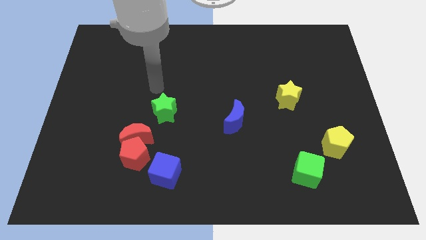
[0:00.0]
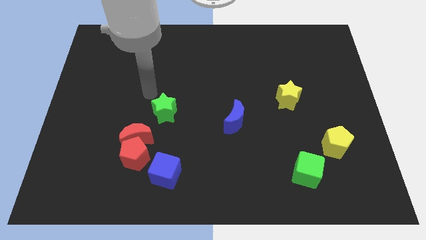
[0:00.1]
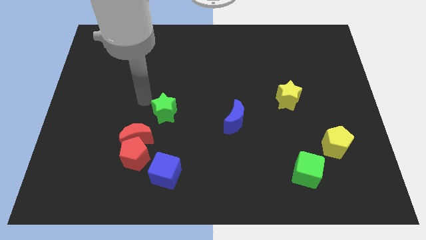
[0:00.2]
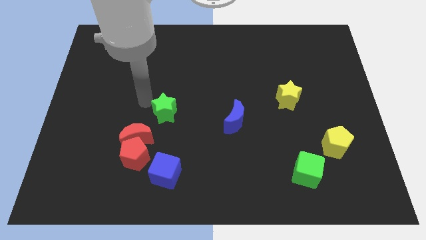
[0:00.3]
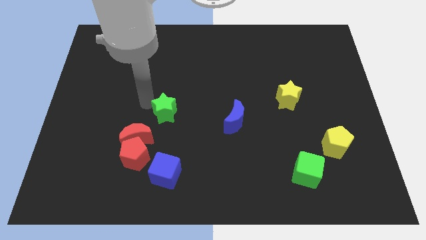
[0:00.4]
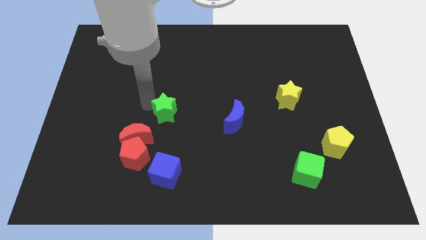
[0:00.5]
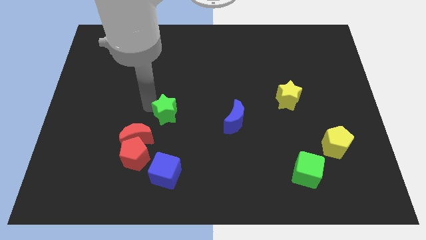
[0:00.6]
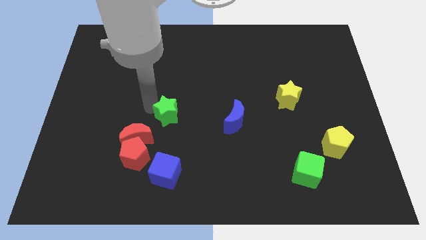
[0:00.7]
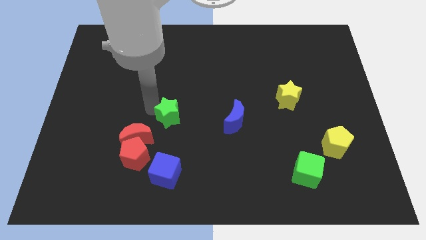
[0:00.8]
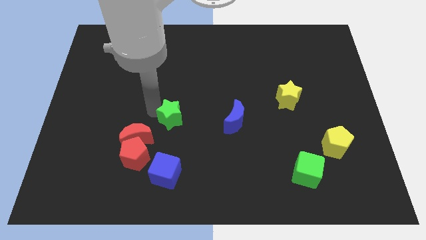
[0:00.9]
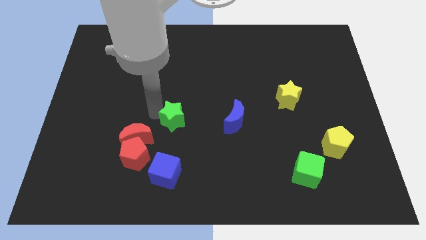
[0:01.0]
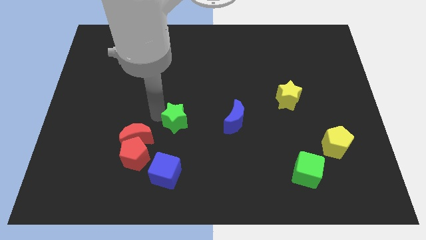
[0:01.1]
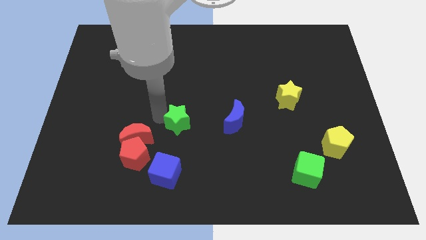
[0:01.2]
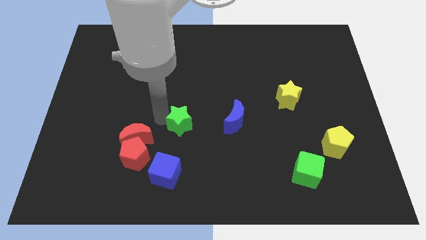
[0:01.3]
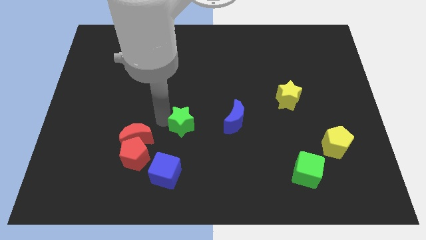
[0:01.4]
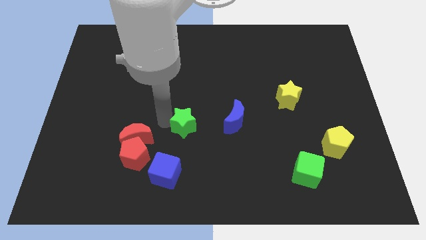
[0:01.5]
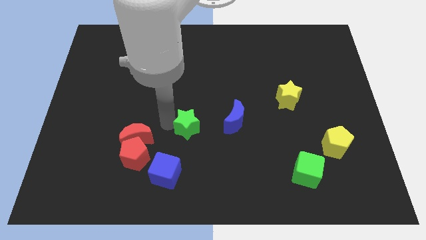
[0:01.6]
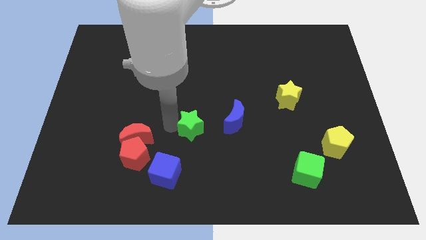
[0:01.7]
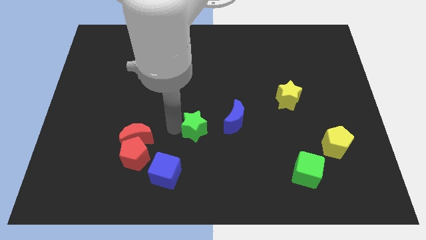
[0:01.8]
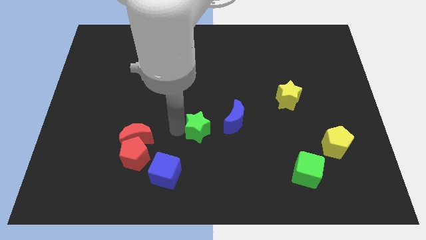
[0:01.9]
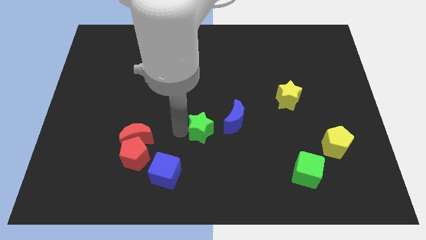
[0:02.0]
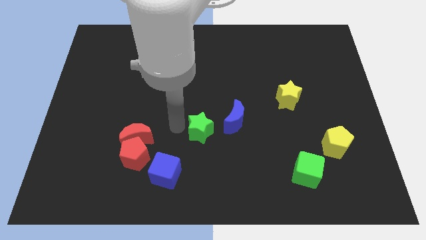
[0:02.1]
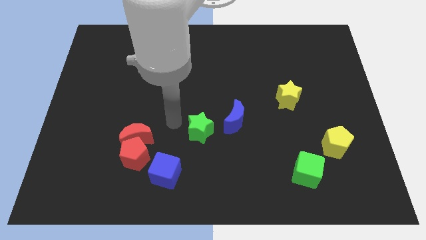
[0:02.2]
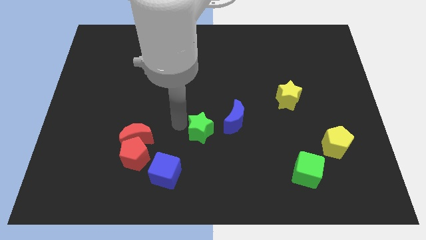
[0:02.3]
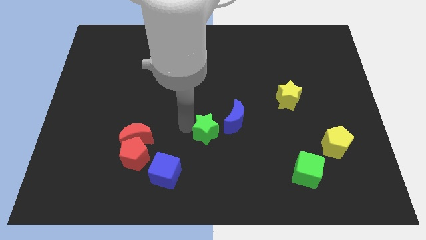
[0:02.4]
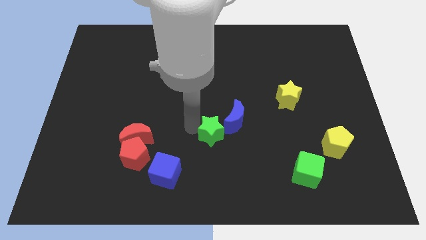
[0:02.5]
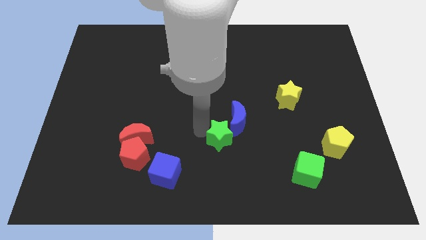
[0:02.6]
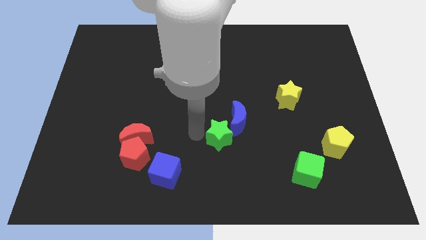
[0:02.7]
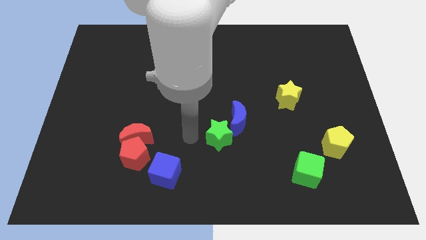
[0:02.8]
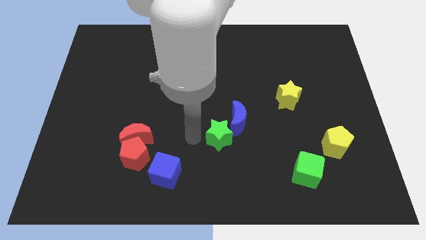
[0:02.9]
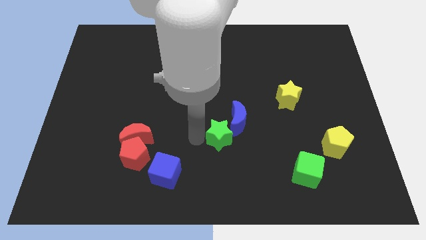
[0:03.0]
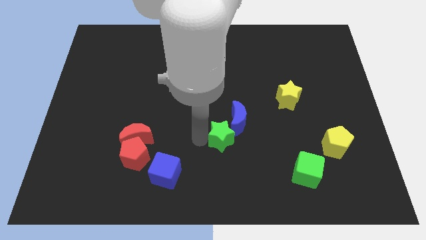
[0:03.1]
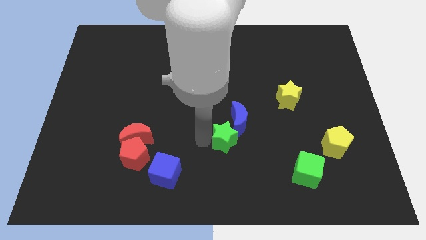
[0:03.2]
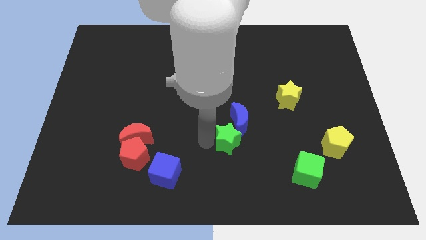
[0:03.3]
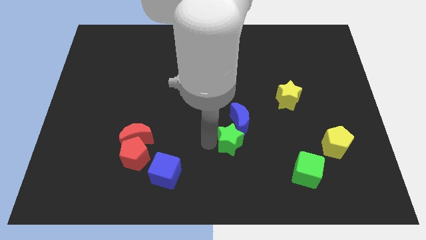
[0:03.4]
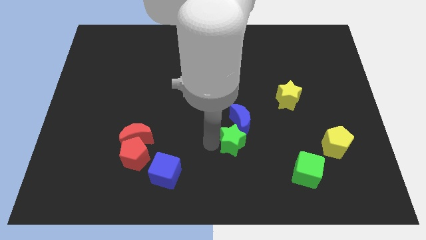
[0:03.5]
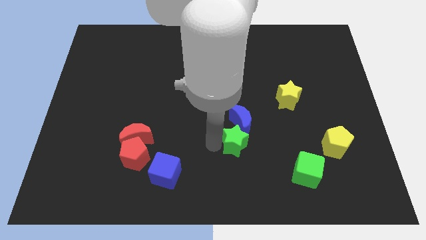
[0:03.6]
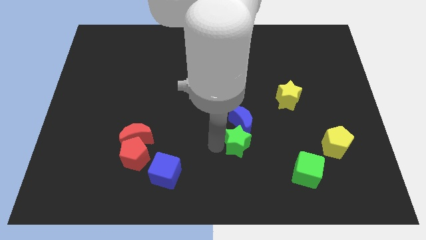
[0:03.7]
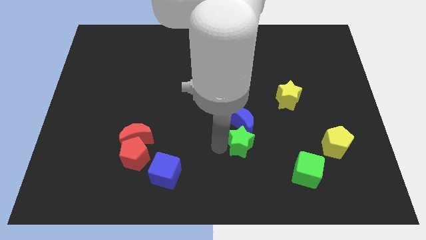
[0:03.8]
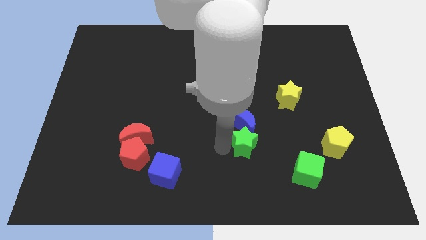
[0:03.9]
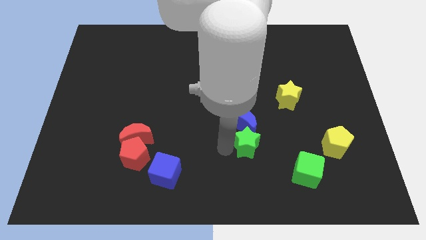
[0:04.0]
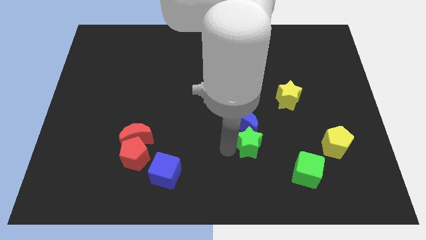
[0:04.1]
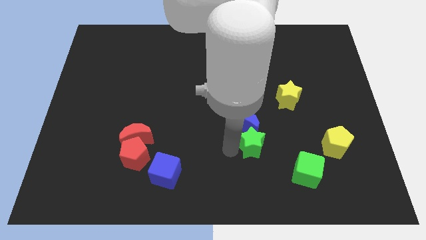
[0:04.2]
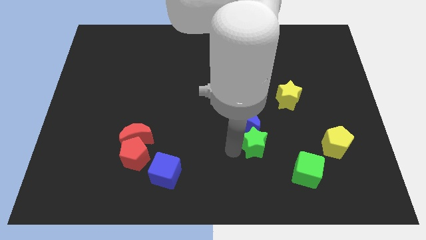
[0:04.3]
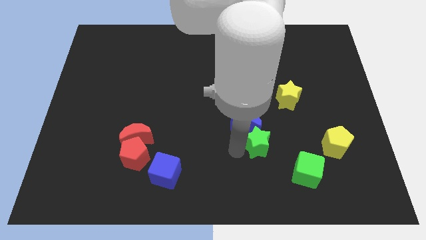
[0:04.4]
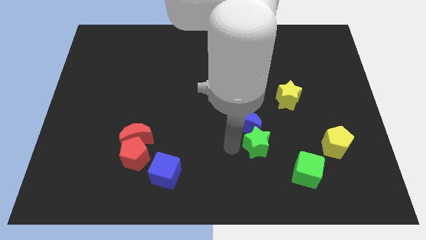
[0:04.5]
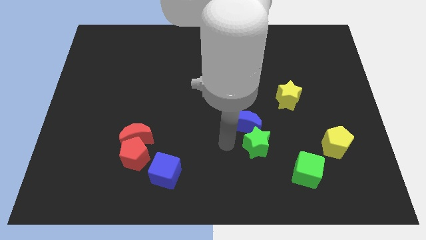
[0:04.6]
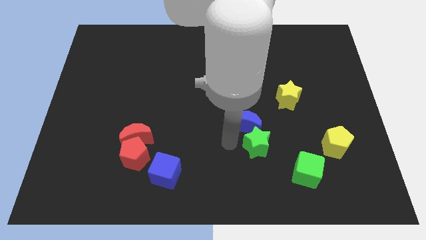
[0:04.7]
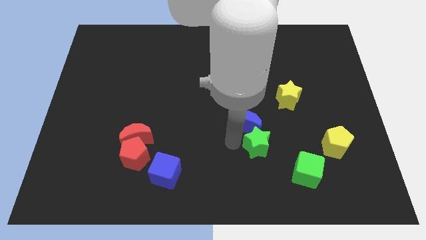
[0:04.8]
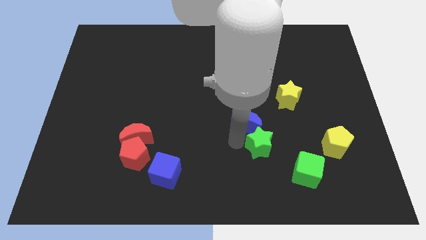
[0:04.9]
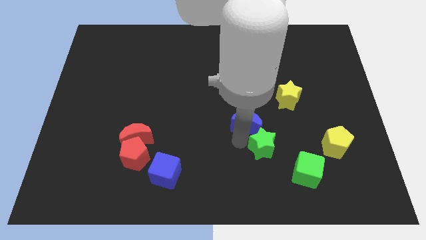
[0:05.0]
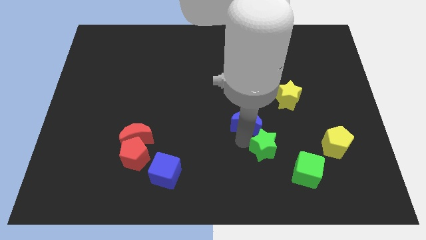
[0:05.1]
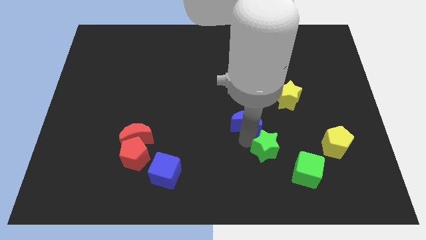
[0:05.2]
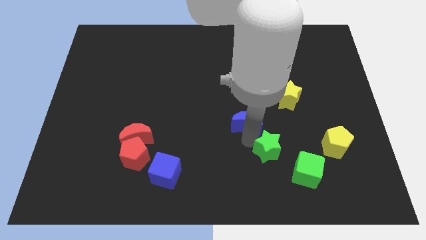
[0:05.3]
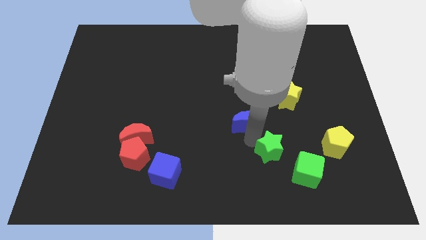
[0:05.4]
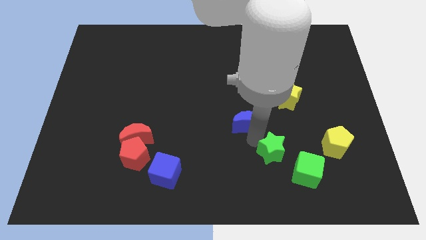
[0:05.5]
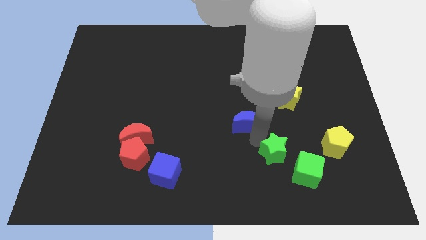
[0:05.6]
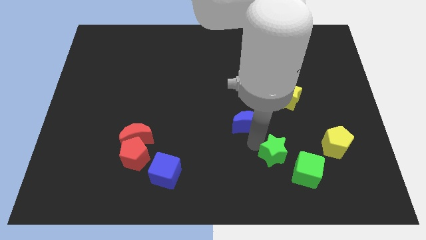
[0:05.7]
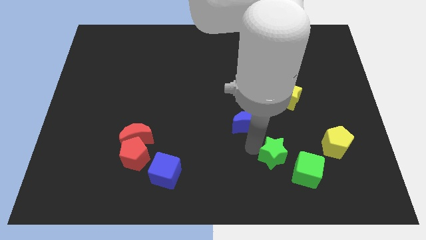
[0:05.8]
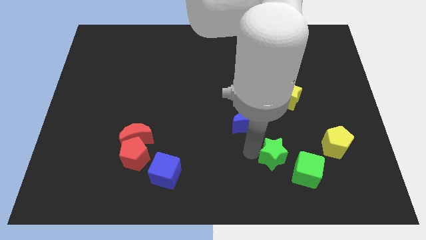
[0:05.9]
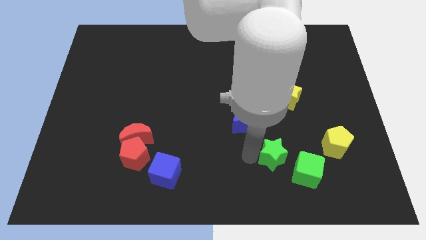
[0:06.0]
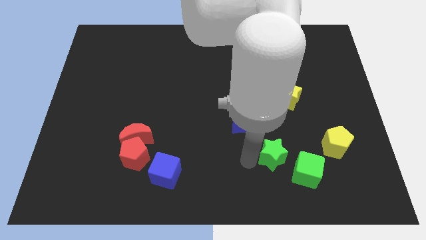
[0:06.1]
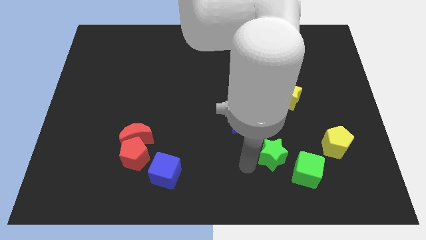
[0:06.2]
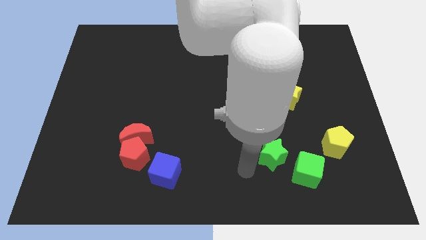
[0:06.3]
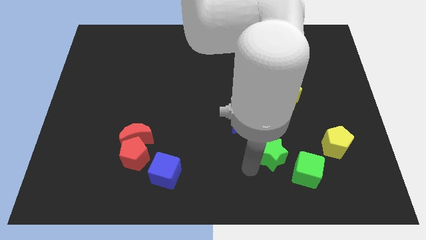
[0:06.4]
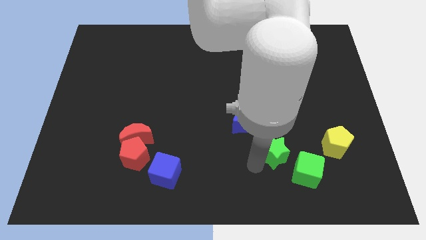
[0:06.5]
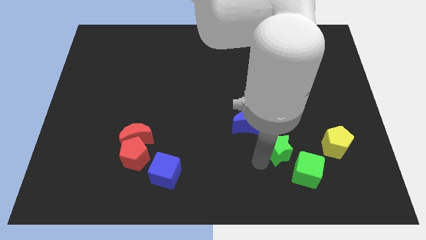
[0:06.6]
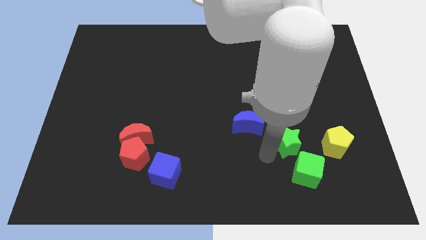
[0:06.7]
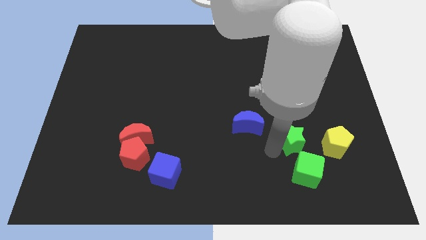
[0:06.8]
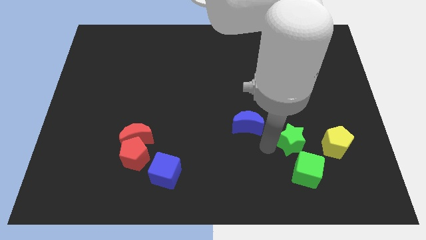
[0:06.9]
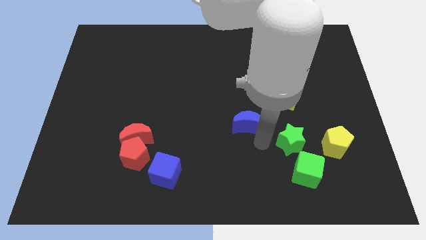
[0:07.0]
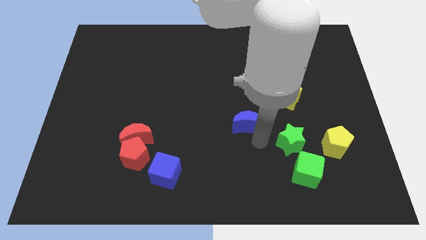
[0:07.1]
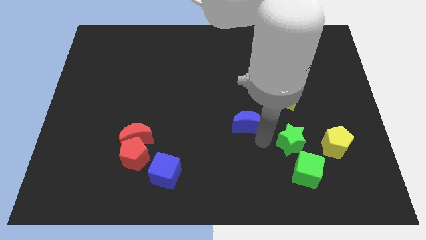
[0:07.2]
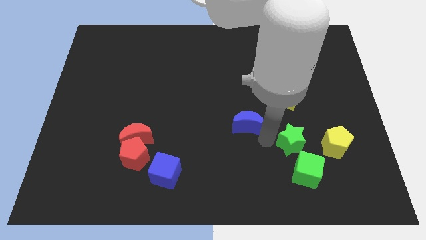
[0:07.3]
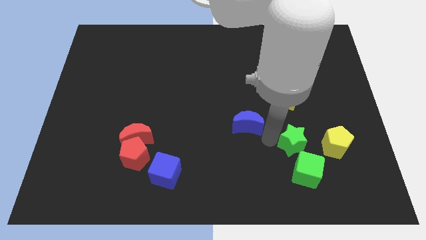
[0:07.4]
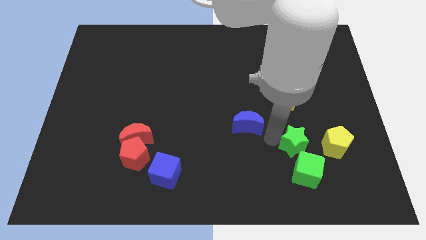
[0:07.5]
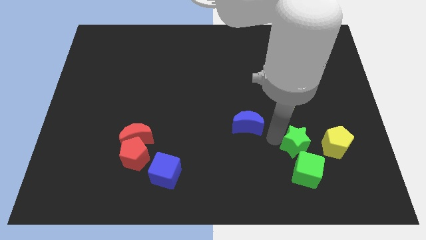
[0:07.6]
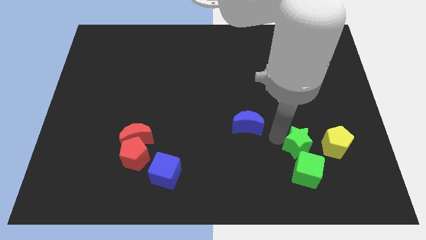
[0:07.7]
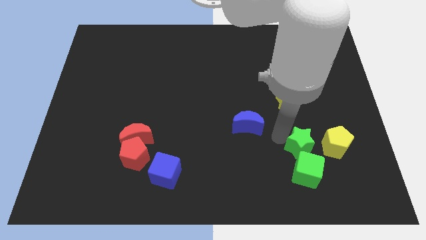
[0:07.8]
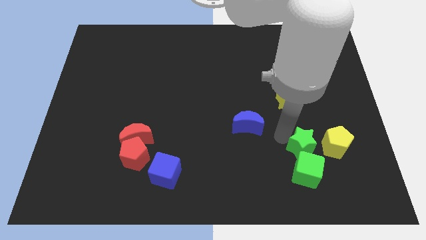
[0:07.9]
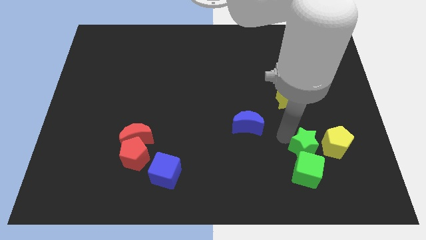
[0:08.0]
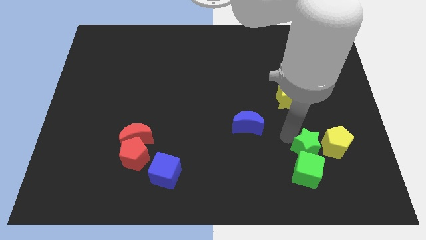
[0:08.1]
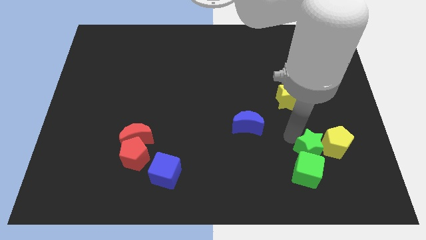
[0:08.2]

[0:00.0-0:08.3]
move the green star close to the yellow pentagon
